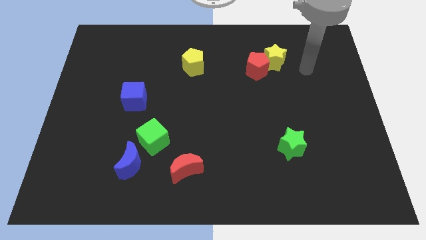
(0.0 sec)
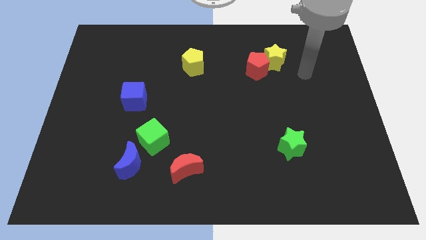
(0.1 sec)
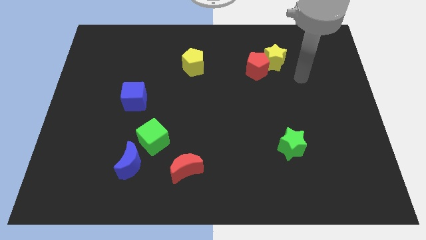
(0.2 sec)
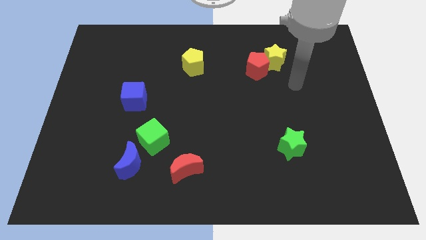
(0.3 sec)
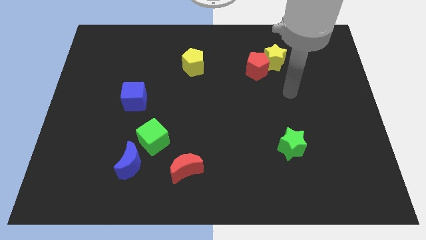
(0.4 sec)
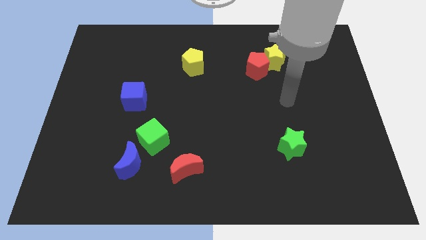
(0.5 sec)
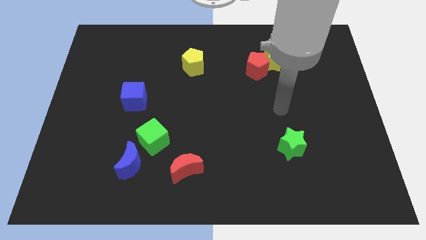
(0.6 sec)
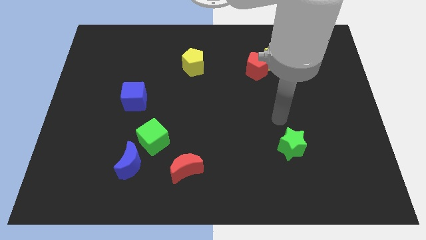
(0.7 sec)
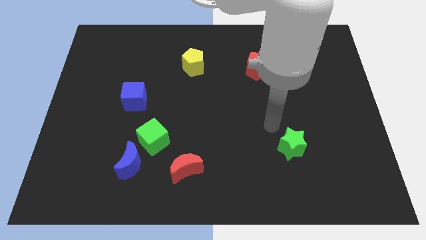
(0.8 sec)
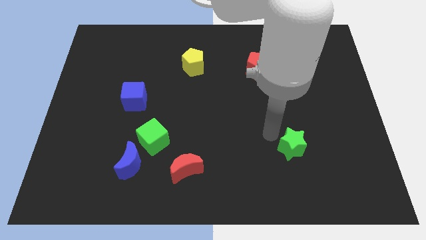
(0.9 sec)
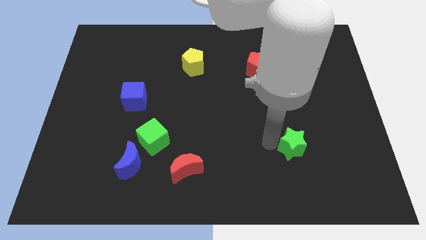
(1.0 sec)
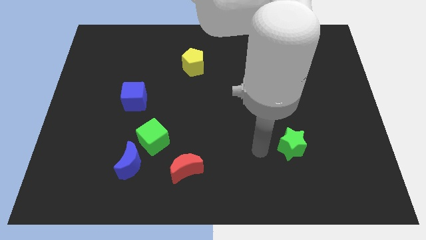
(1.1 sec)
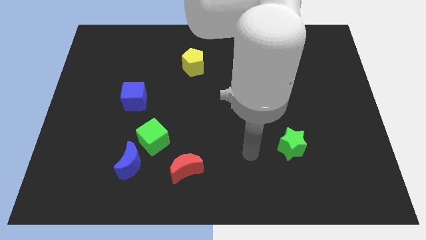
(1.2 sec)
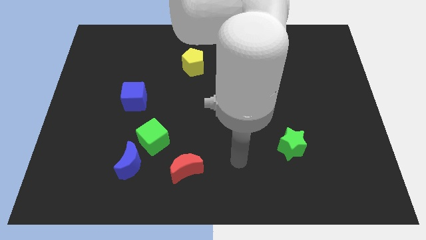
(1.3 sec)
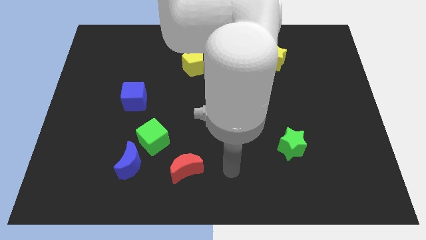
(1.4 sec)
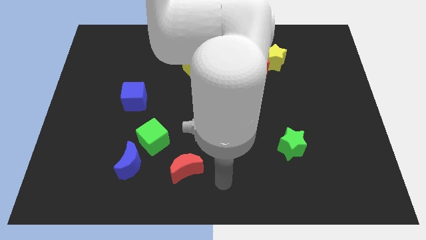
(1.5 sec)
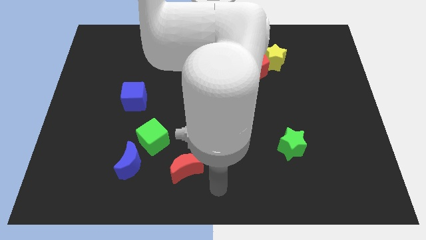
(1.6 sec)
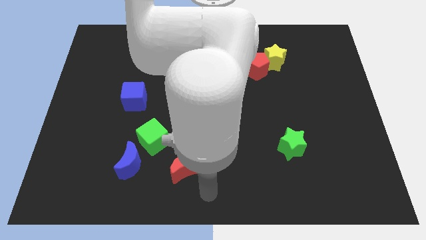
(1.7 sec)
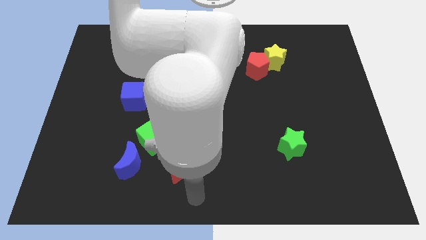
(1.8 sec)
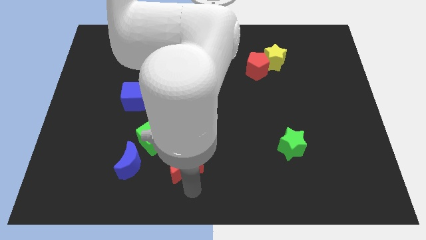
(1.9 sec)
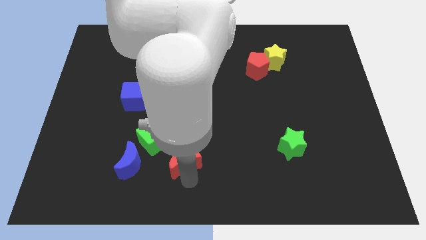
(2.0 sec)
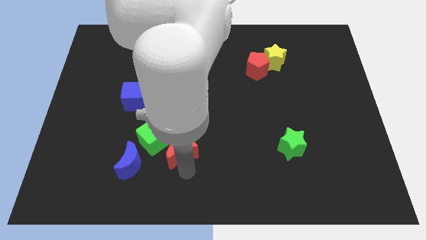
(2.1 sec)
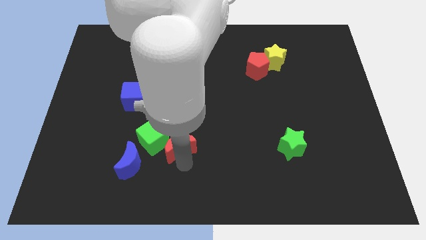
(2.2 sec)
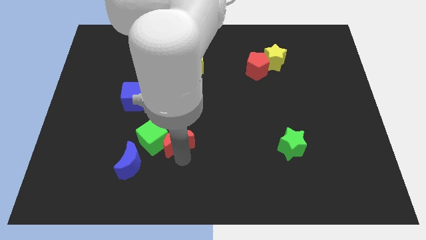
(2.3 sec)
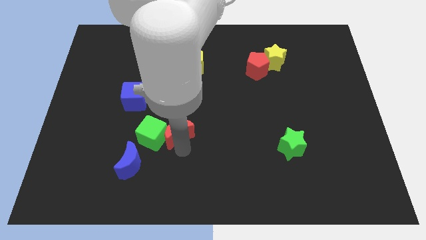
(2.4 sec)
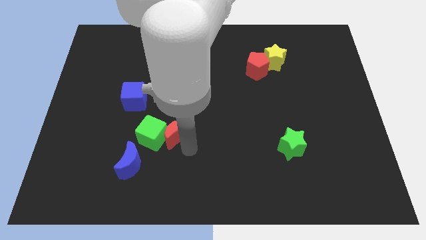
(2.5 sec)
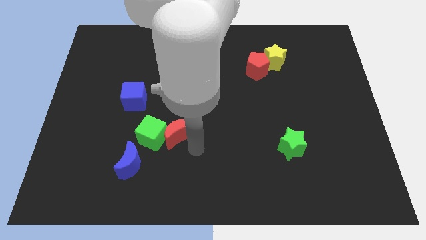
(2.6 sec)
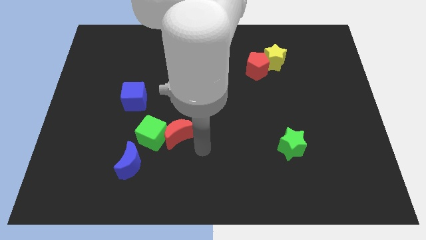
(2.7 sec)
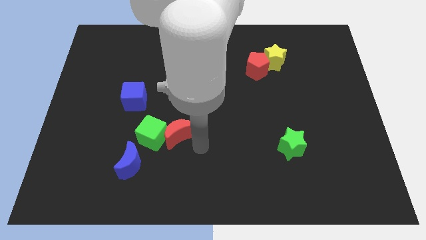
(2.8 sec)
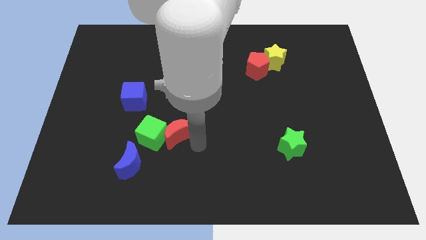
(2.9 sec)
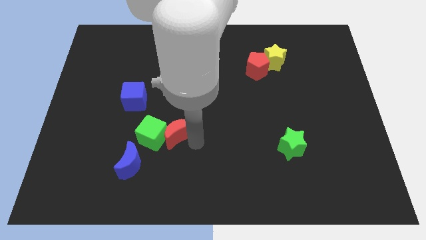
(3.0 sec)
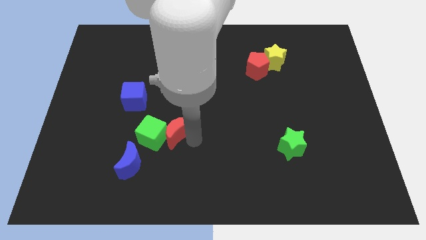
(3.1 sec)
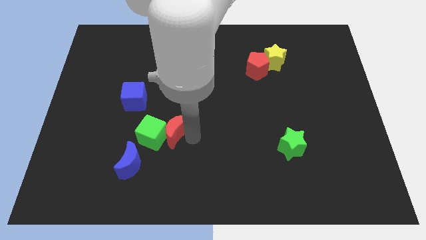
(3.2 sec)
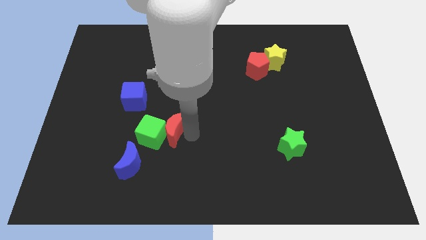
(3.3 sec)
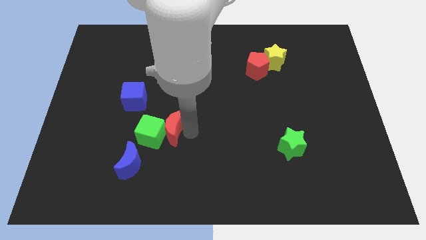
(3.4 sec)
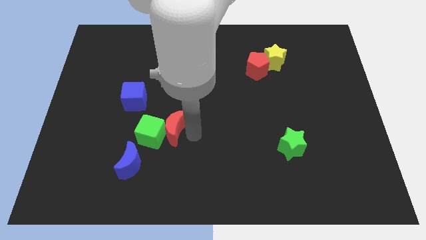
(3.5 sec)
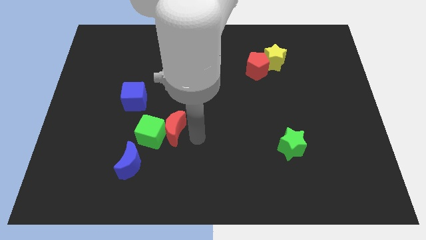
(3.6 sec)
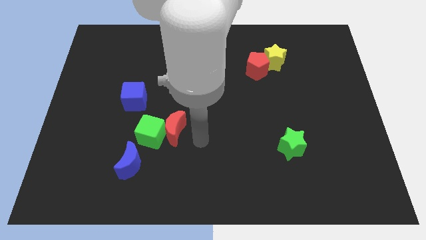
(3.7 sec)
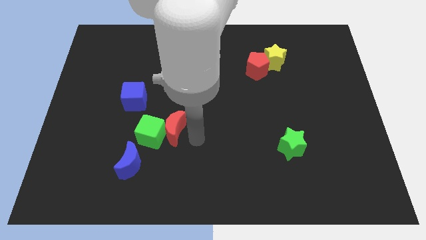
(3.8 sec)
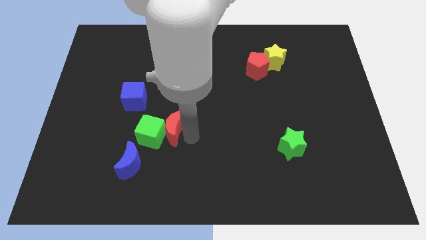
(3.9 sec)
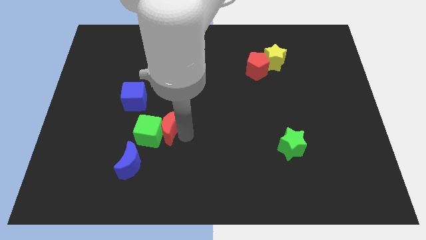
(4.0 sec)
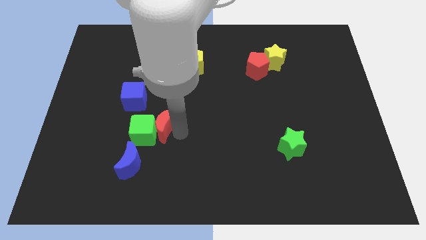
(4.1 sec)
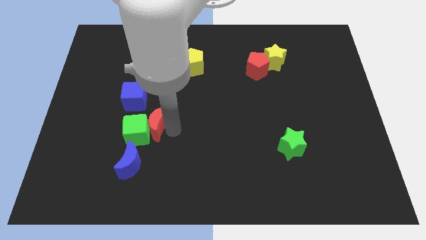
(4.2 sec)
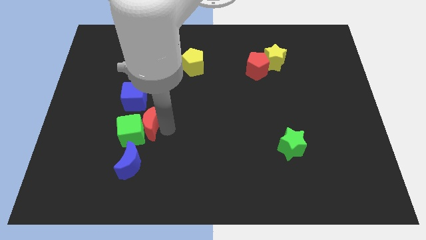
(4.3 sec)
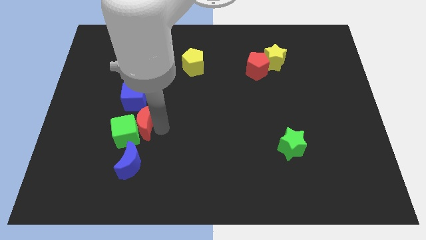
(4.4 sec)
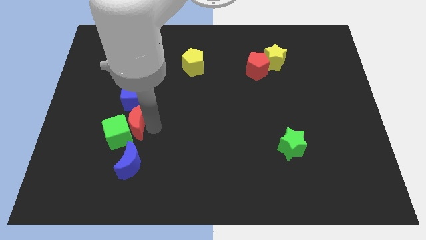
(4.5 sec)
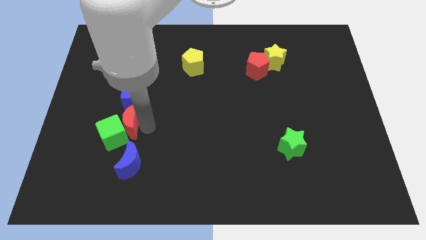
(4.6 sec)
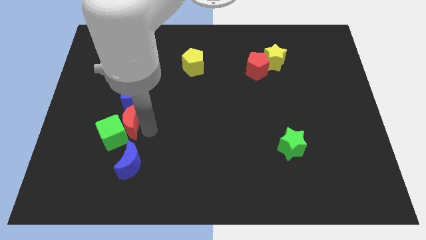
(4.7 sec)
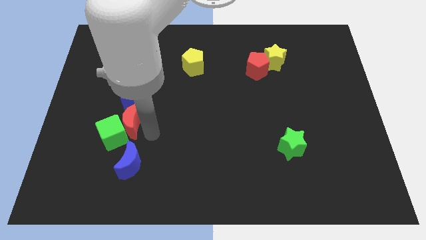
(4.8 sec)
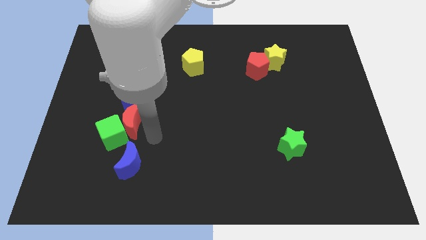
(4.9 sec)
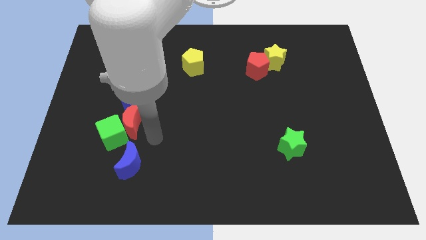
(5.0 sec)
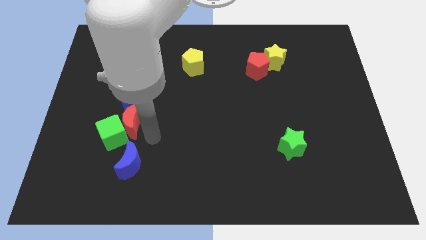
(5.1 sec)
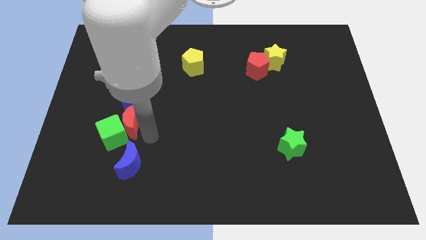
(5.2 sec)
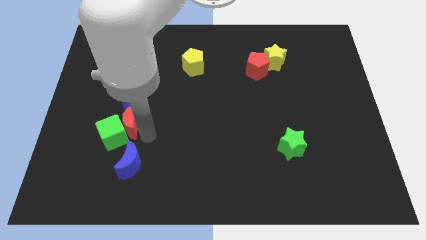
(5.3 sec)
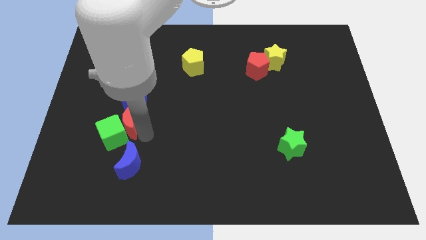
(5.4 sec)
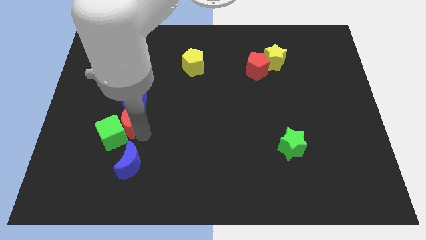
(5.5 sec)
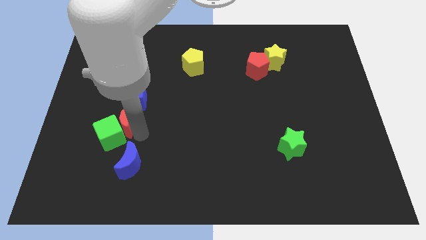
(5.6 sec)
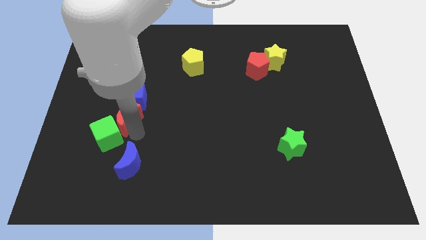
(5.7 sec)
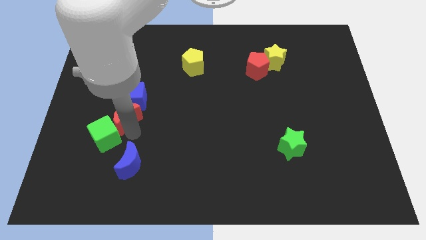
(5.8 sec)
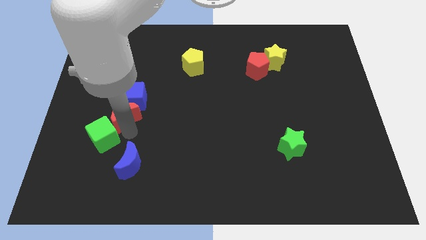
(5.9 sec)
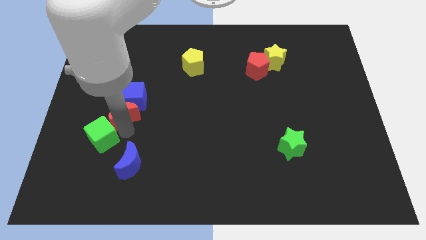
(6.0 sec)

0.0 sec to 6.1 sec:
push the red moon diagonally upwards and to the left

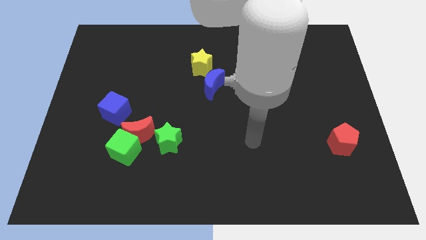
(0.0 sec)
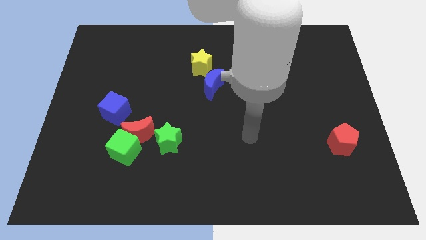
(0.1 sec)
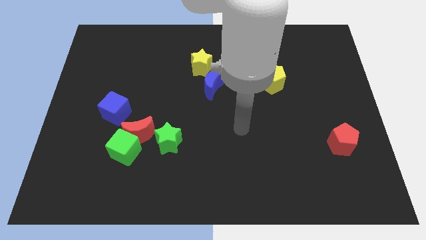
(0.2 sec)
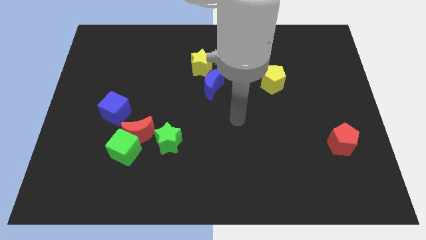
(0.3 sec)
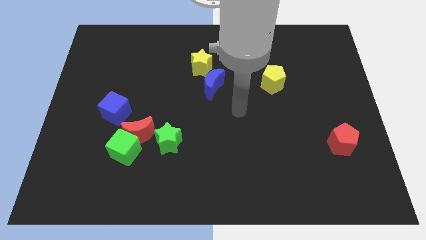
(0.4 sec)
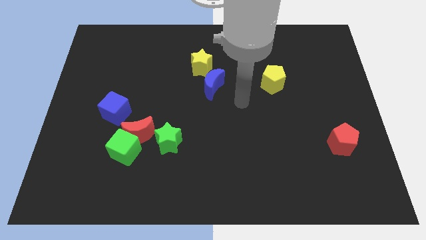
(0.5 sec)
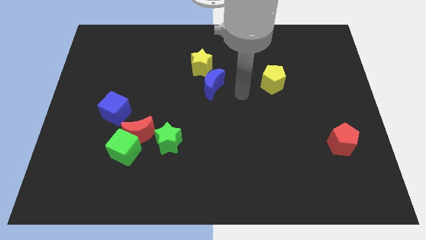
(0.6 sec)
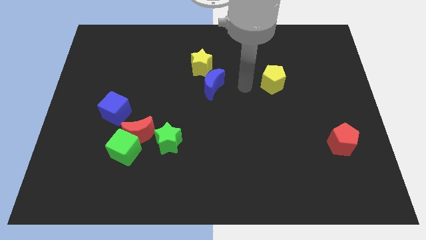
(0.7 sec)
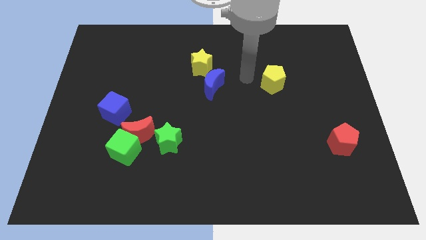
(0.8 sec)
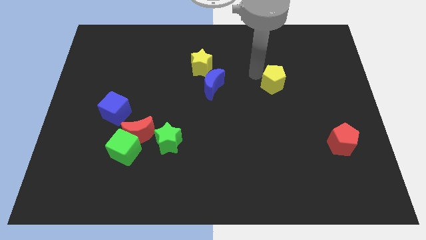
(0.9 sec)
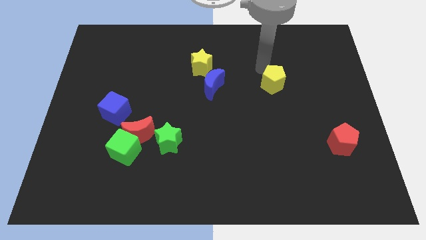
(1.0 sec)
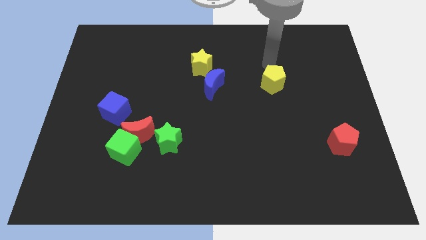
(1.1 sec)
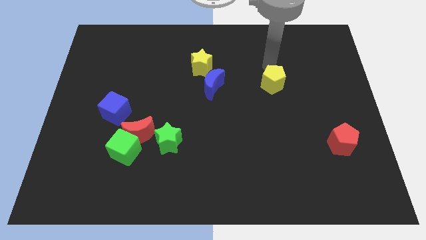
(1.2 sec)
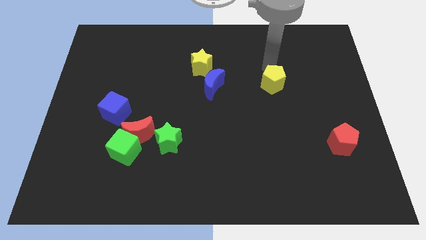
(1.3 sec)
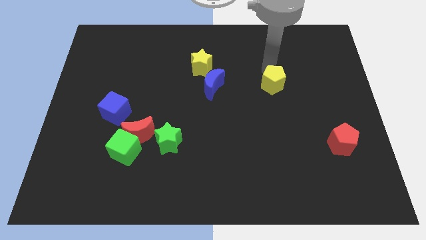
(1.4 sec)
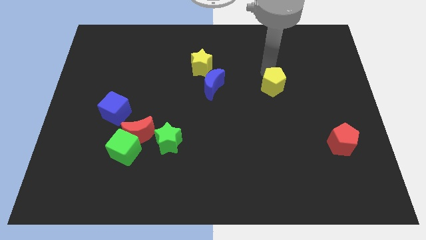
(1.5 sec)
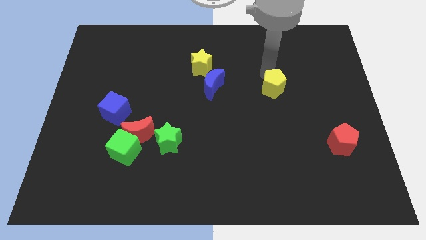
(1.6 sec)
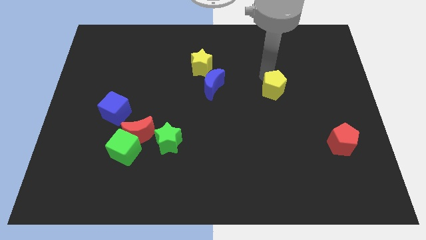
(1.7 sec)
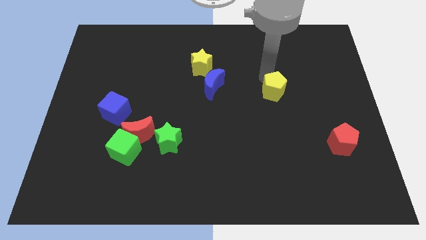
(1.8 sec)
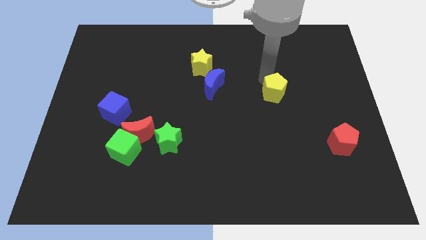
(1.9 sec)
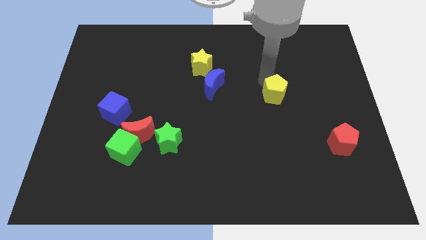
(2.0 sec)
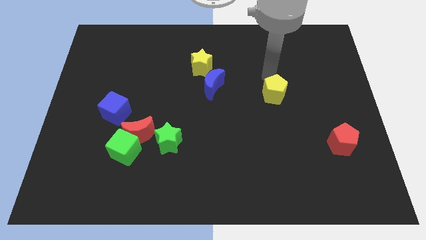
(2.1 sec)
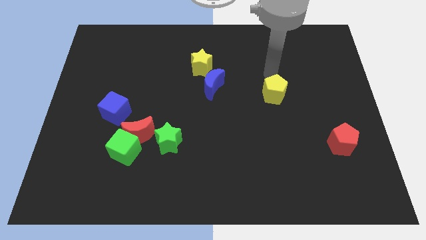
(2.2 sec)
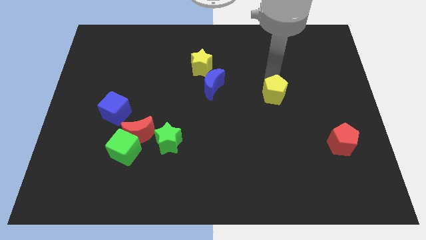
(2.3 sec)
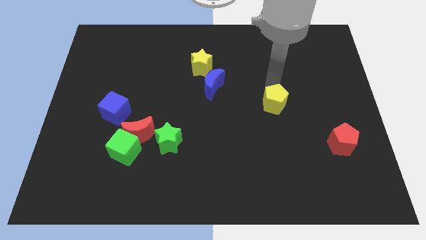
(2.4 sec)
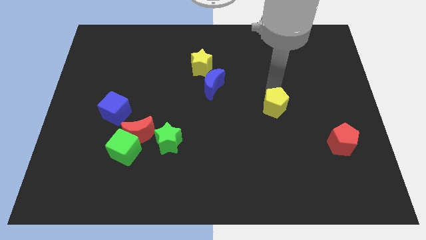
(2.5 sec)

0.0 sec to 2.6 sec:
slightly move the yellow pentagon down
